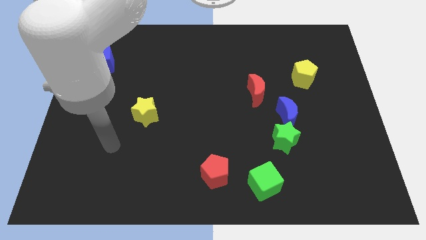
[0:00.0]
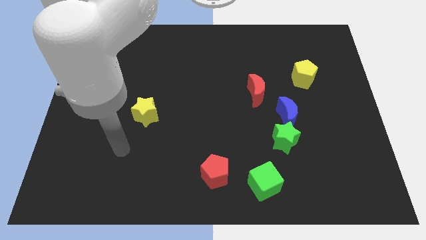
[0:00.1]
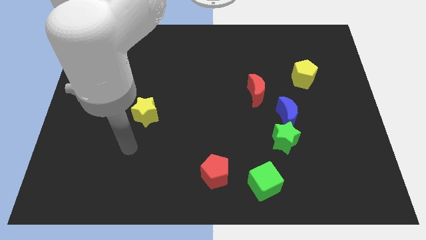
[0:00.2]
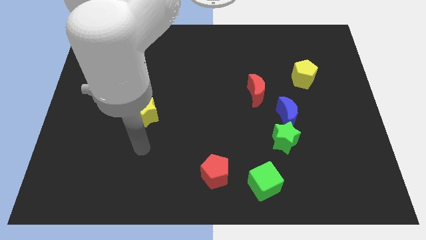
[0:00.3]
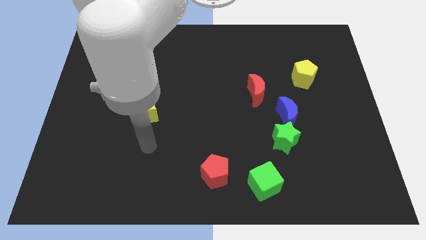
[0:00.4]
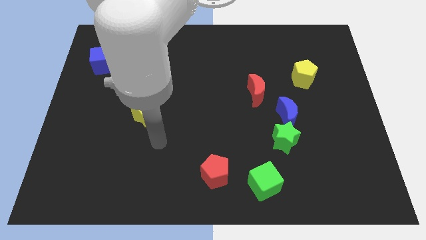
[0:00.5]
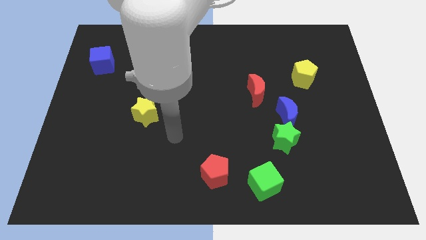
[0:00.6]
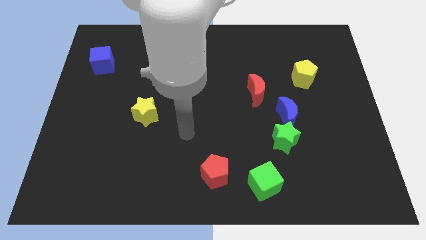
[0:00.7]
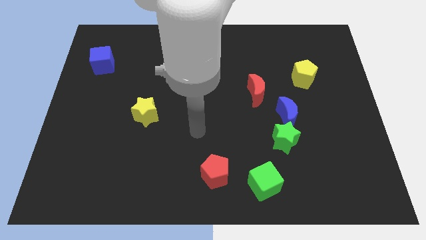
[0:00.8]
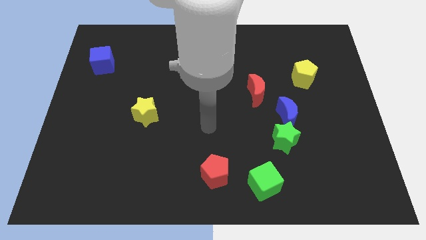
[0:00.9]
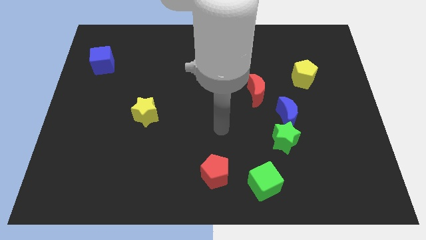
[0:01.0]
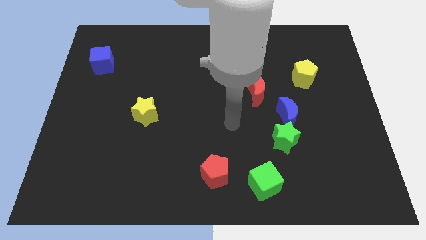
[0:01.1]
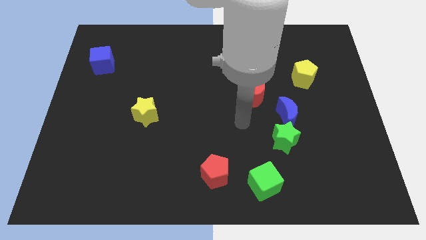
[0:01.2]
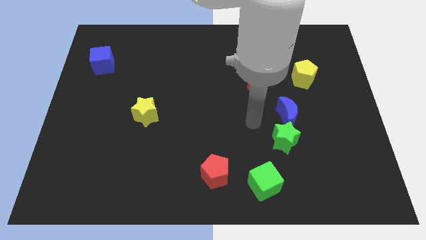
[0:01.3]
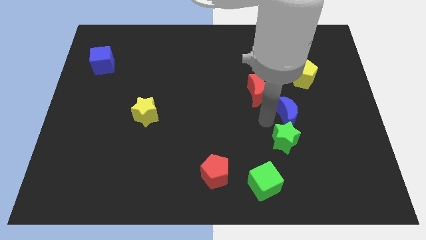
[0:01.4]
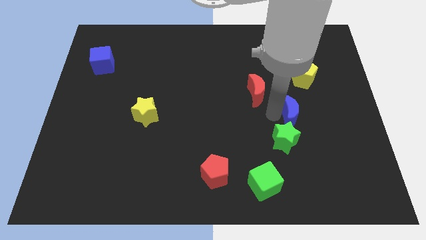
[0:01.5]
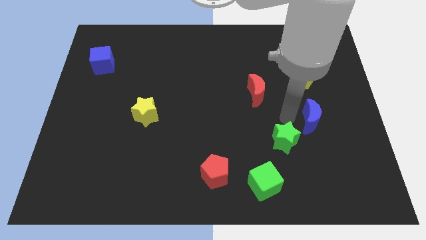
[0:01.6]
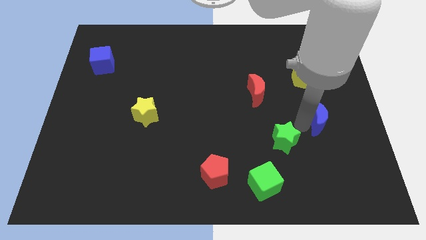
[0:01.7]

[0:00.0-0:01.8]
pull the green star apart from the blue moon

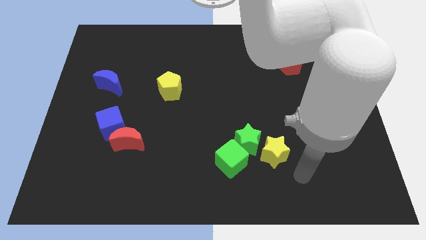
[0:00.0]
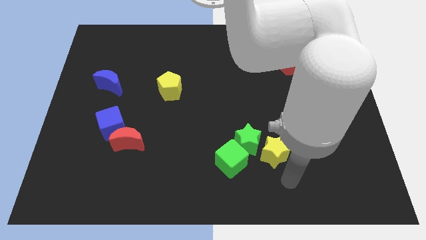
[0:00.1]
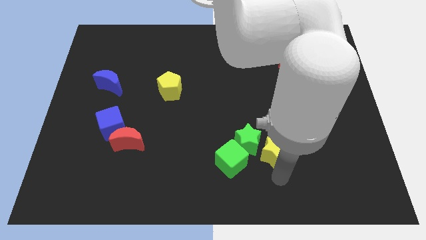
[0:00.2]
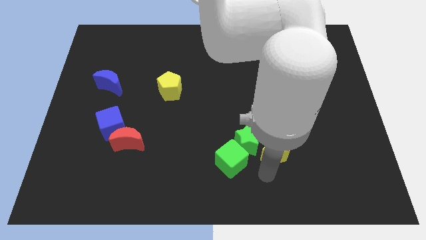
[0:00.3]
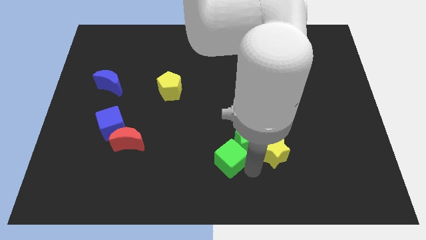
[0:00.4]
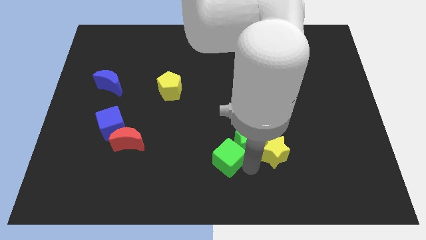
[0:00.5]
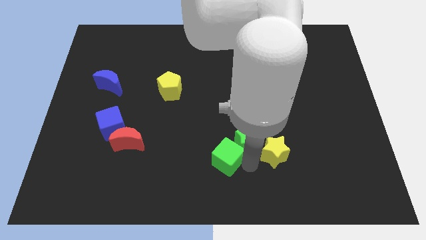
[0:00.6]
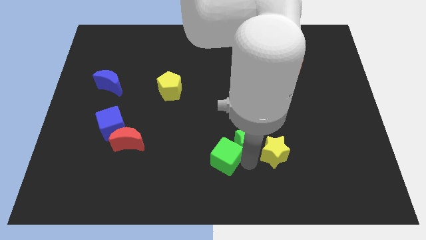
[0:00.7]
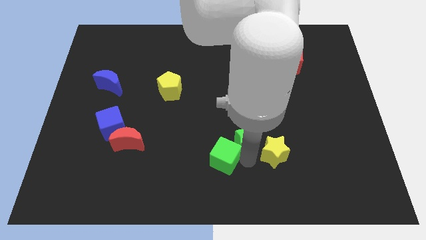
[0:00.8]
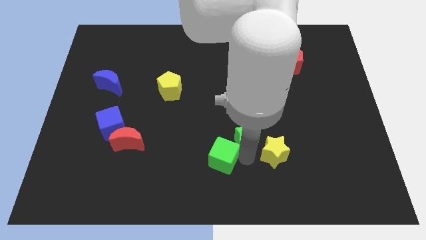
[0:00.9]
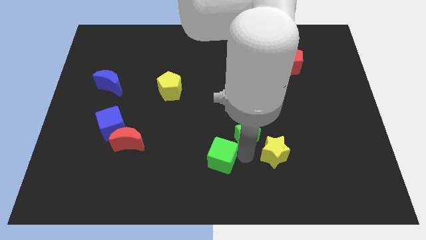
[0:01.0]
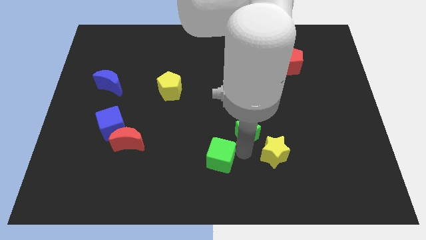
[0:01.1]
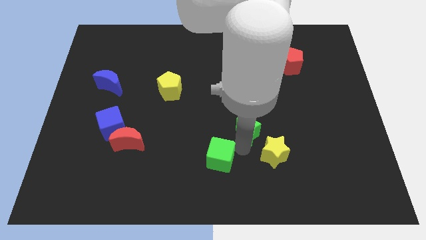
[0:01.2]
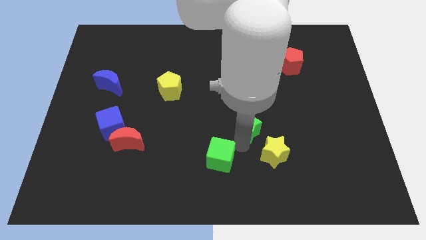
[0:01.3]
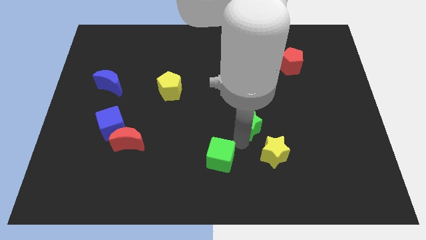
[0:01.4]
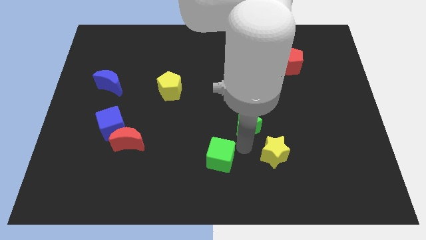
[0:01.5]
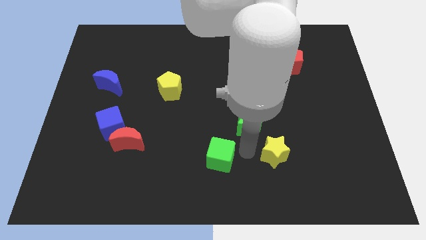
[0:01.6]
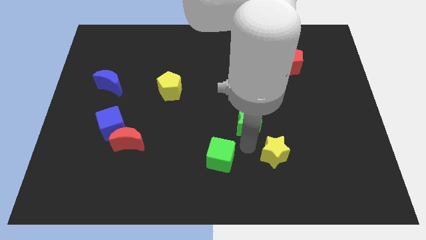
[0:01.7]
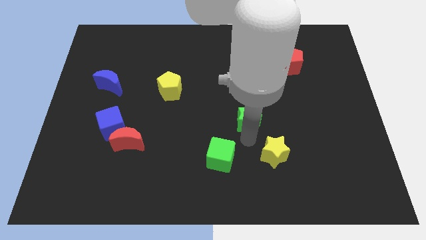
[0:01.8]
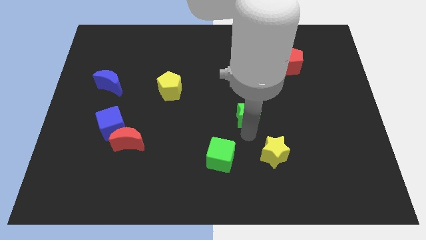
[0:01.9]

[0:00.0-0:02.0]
separate the green star from the yellow star and green cube

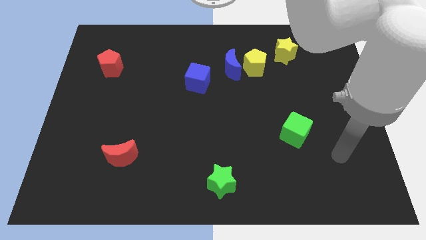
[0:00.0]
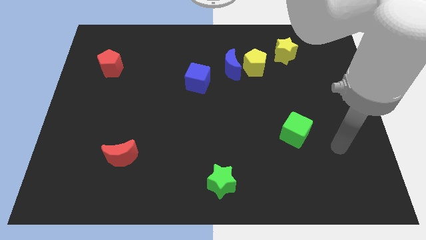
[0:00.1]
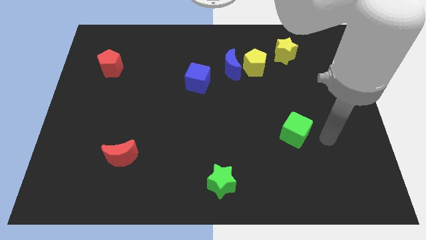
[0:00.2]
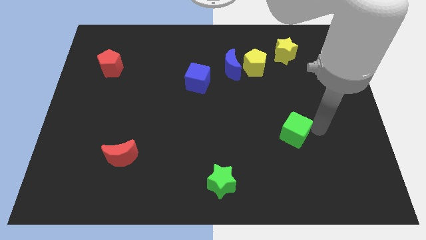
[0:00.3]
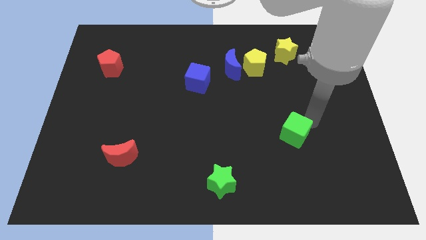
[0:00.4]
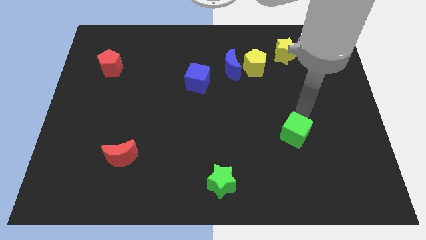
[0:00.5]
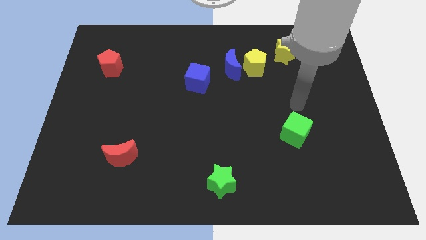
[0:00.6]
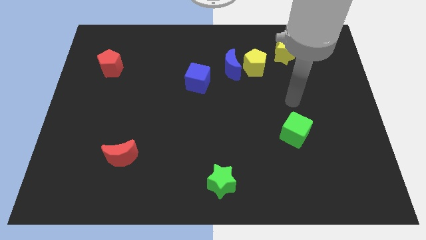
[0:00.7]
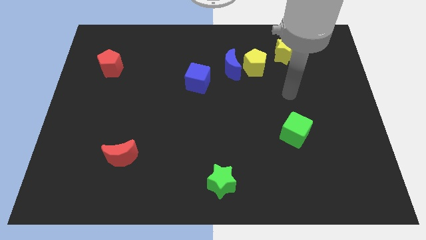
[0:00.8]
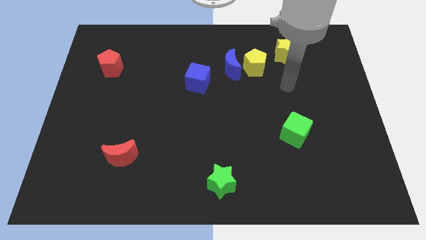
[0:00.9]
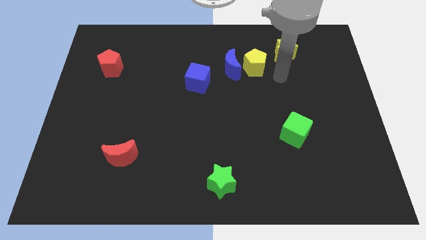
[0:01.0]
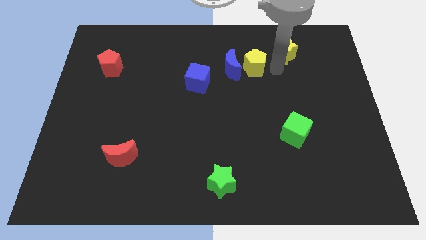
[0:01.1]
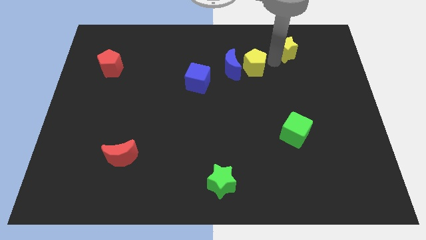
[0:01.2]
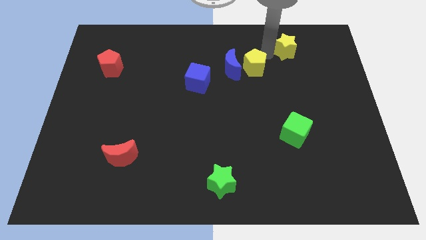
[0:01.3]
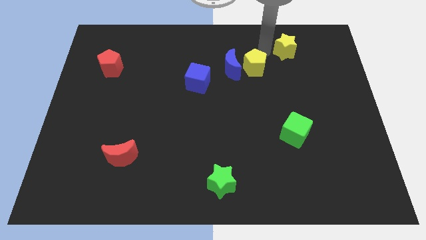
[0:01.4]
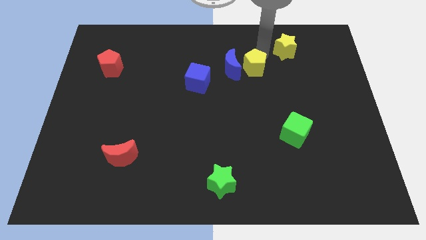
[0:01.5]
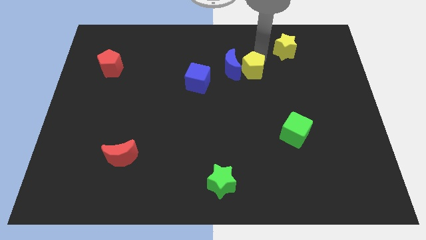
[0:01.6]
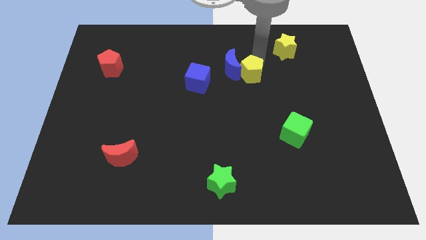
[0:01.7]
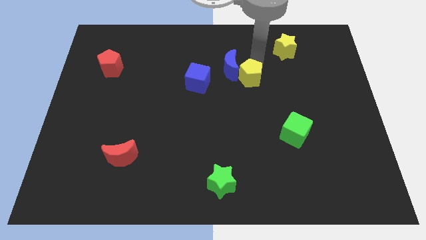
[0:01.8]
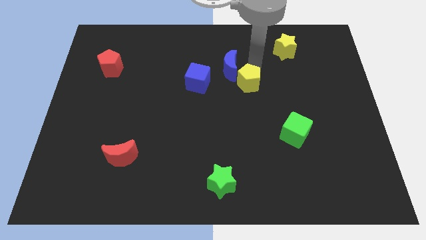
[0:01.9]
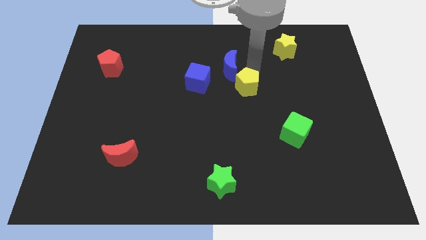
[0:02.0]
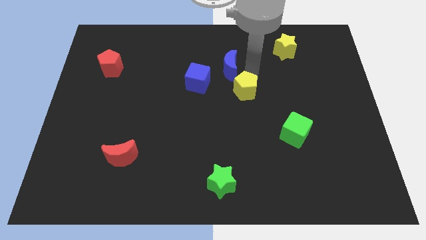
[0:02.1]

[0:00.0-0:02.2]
pull the yellow pentagon apart from the blue moon and yellow star

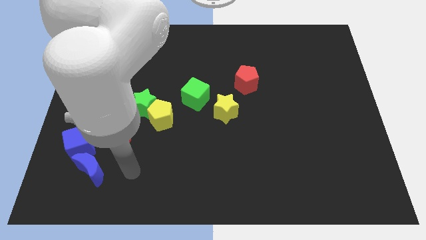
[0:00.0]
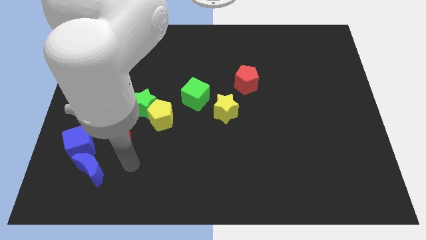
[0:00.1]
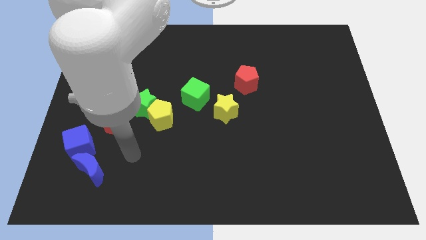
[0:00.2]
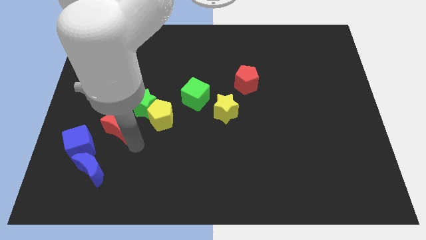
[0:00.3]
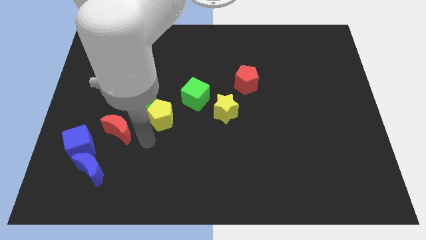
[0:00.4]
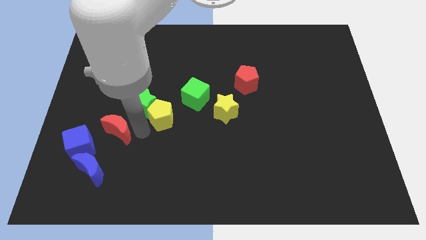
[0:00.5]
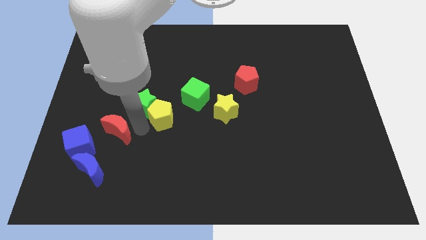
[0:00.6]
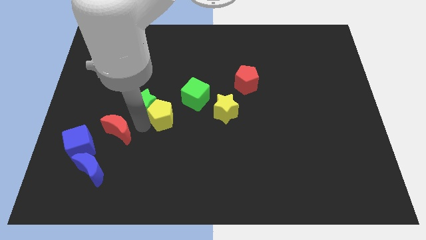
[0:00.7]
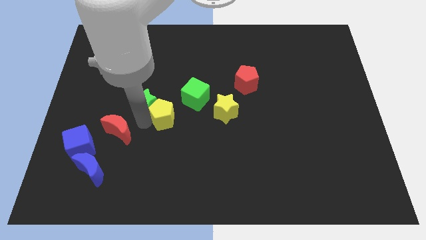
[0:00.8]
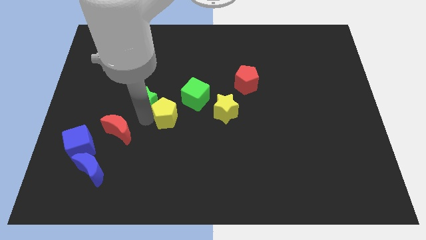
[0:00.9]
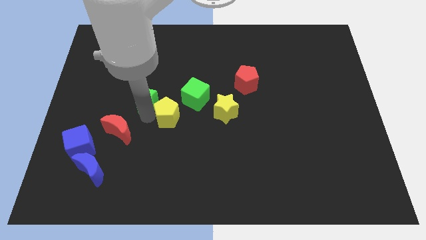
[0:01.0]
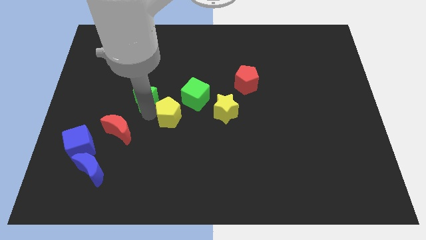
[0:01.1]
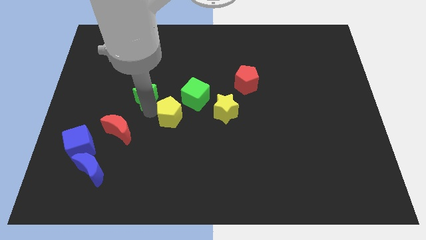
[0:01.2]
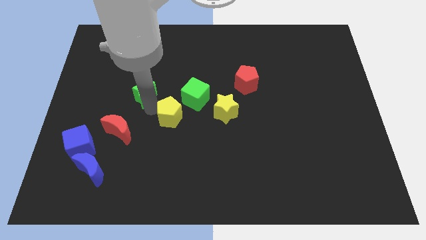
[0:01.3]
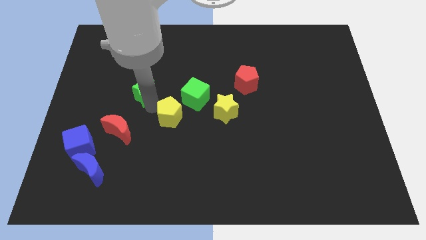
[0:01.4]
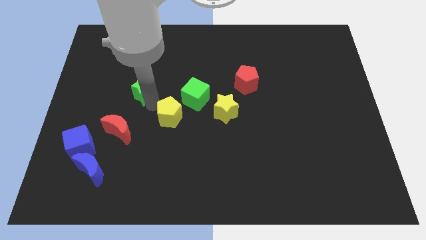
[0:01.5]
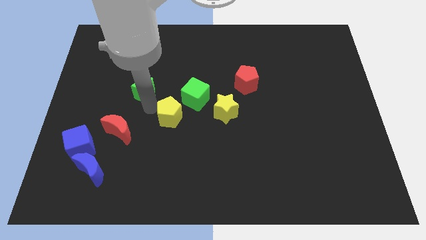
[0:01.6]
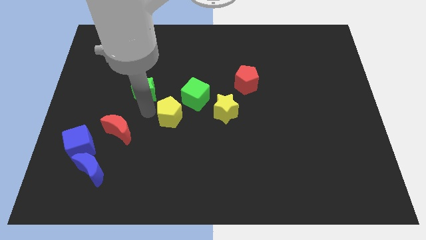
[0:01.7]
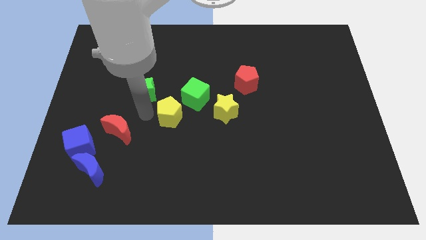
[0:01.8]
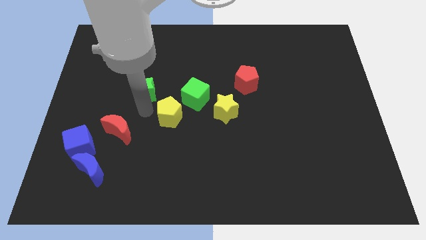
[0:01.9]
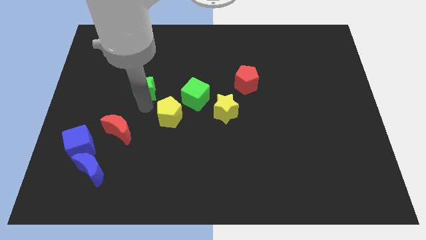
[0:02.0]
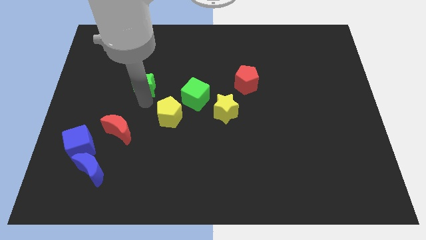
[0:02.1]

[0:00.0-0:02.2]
pull the green star apart from the yellow pentagon and red moon

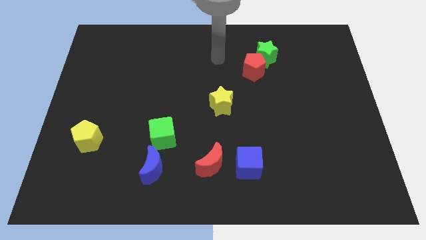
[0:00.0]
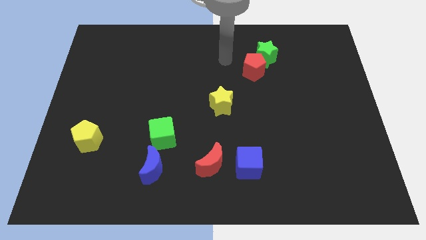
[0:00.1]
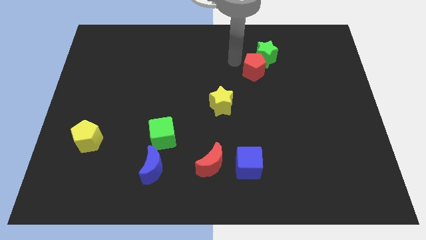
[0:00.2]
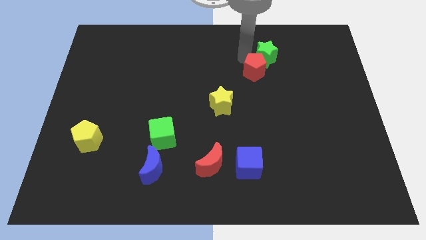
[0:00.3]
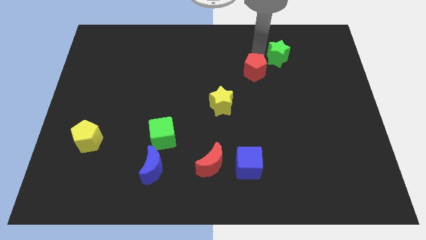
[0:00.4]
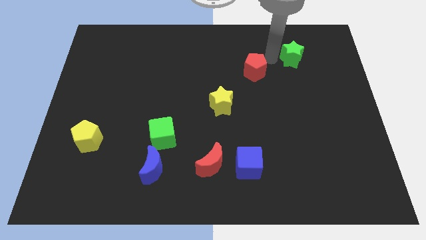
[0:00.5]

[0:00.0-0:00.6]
pull the red pentagon apart from the green star

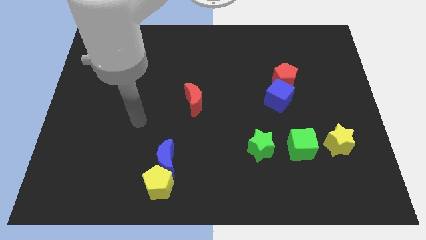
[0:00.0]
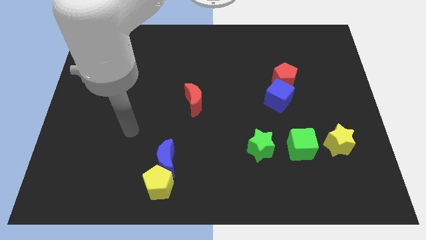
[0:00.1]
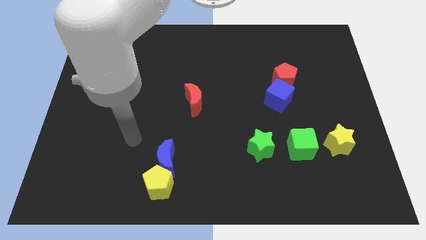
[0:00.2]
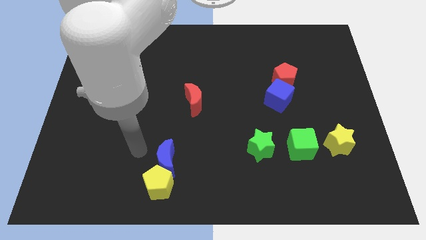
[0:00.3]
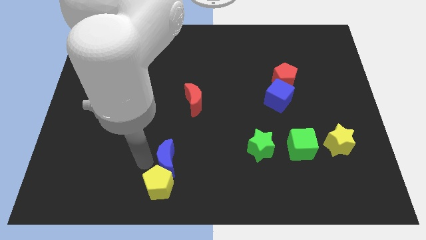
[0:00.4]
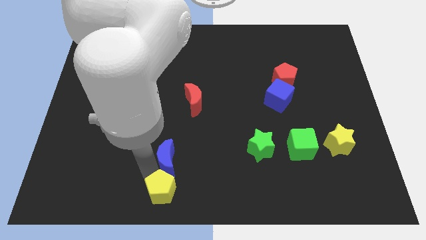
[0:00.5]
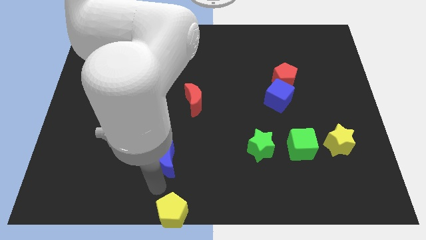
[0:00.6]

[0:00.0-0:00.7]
move the blue moon away from the yellow pentagon
